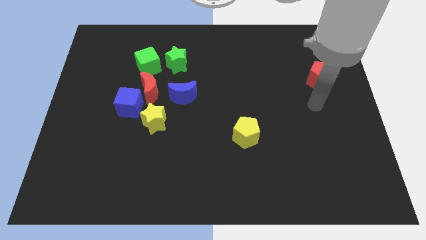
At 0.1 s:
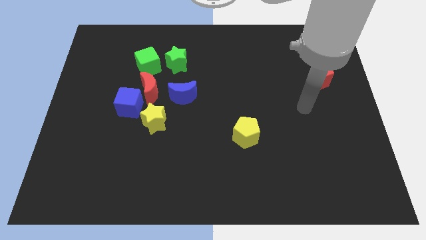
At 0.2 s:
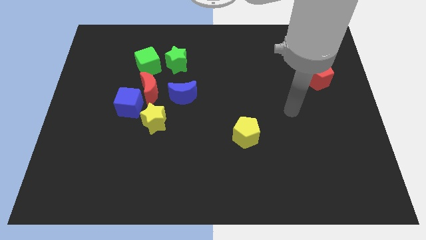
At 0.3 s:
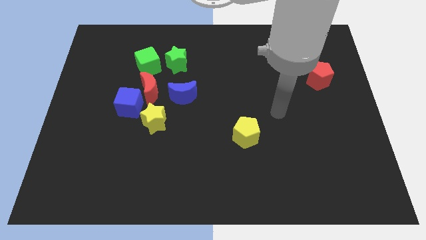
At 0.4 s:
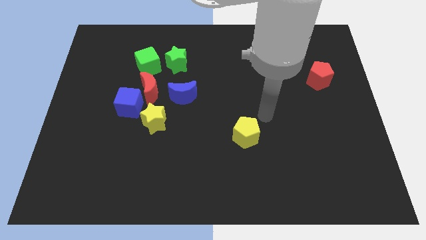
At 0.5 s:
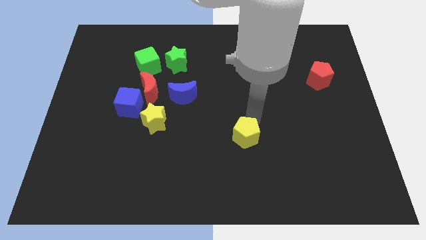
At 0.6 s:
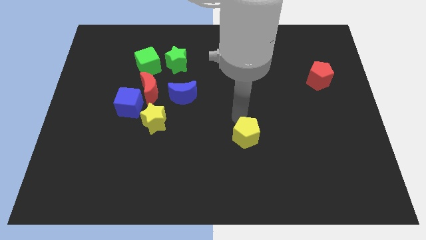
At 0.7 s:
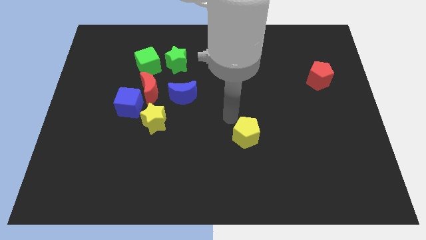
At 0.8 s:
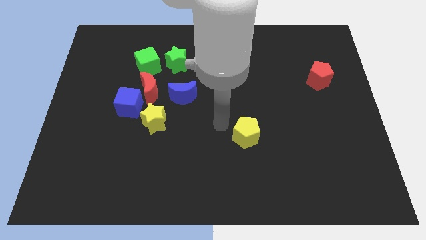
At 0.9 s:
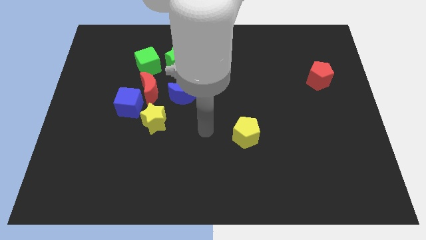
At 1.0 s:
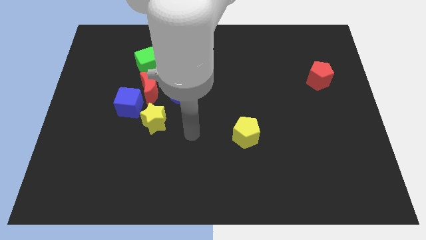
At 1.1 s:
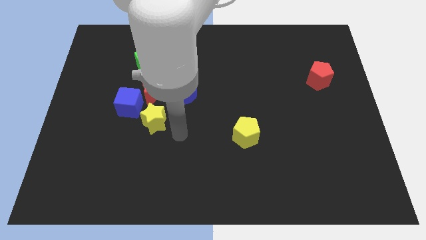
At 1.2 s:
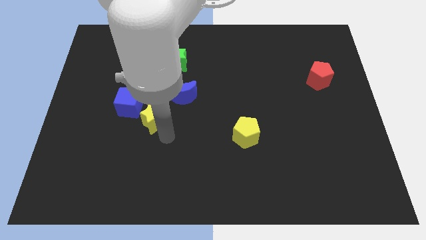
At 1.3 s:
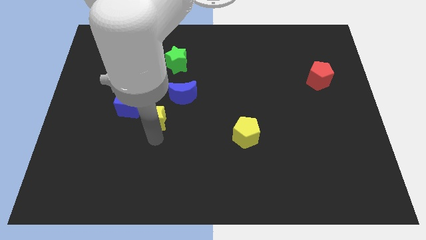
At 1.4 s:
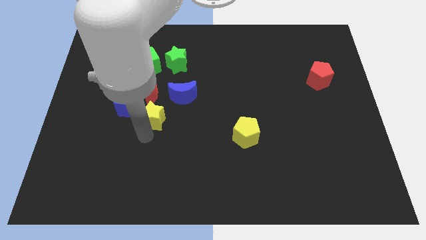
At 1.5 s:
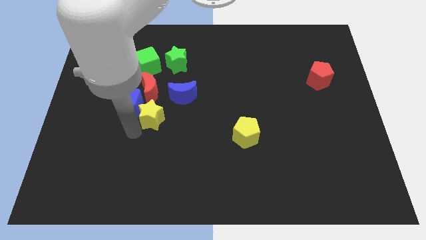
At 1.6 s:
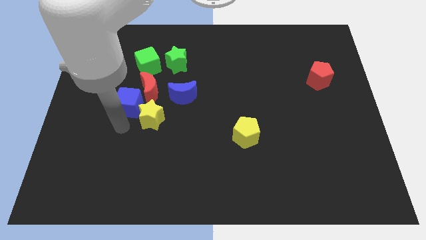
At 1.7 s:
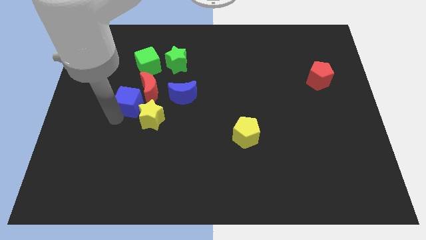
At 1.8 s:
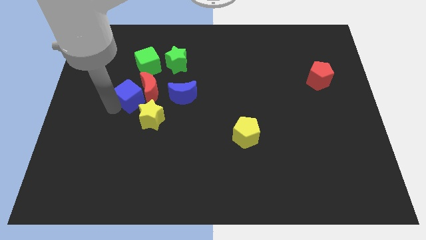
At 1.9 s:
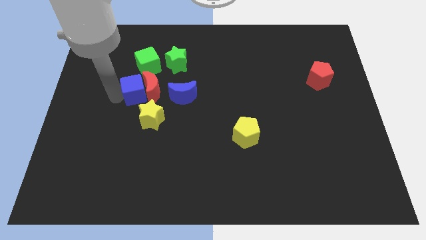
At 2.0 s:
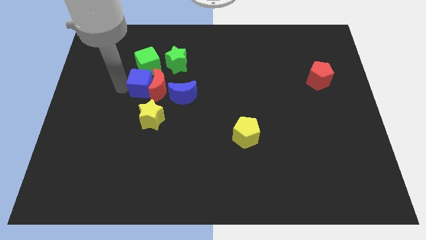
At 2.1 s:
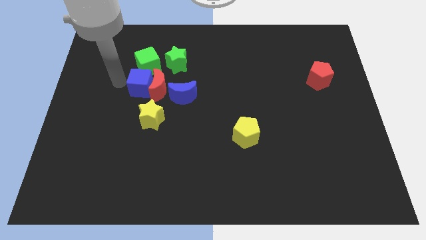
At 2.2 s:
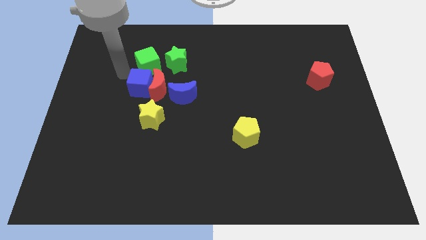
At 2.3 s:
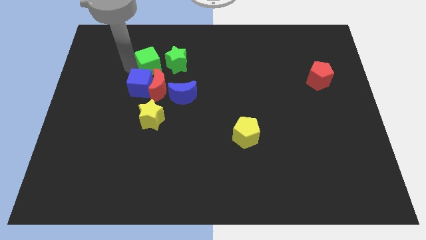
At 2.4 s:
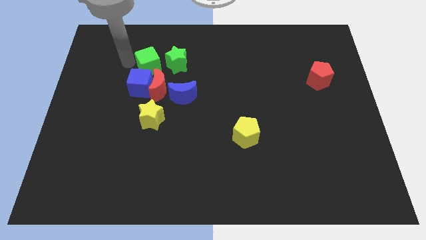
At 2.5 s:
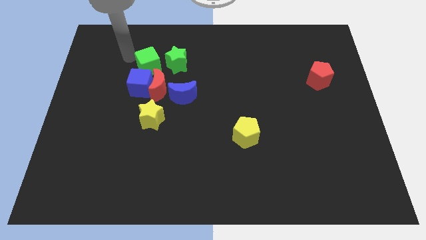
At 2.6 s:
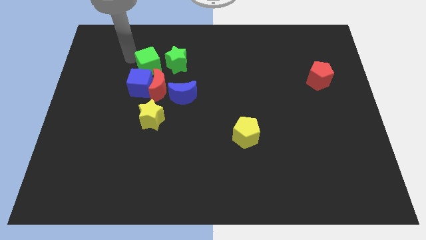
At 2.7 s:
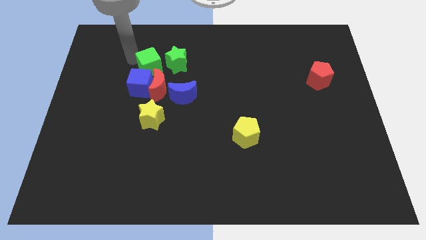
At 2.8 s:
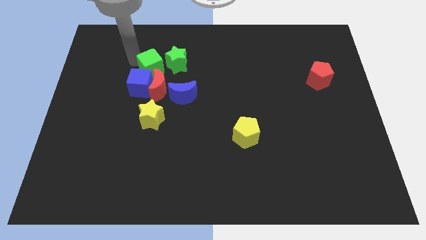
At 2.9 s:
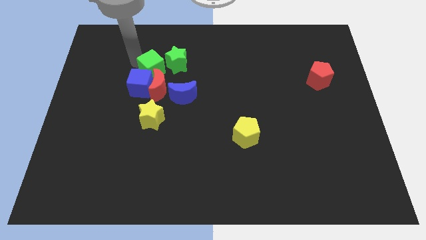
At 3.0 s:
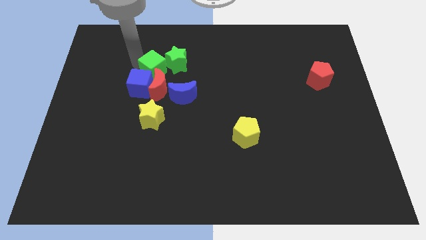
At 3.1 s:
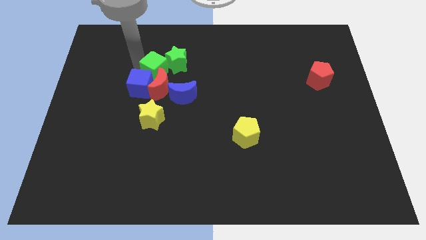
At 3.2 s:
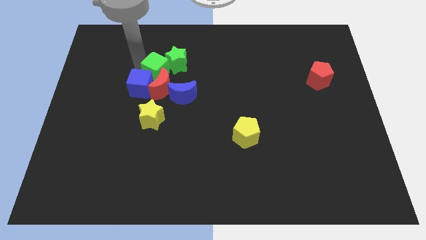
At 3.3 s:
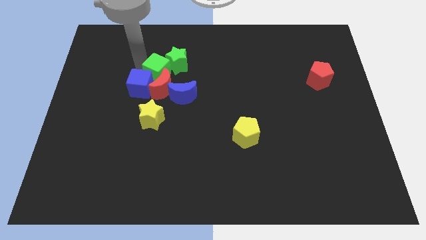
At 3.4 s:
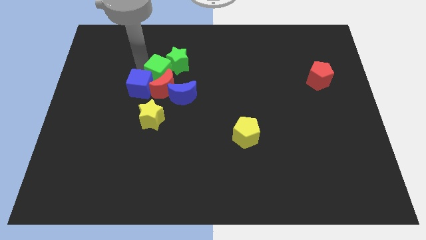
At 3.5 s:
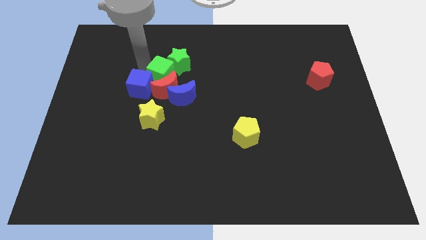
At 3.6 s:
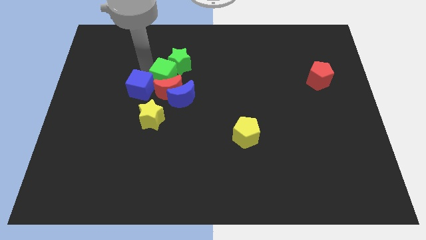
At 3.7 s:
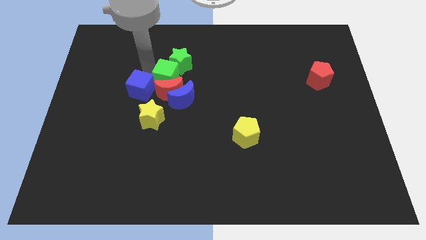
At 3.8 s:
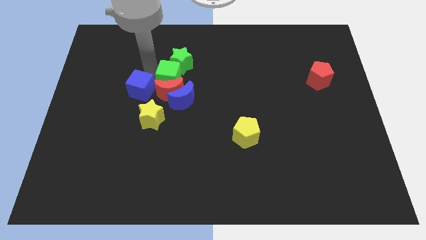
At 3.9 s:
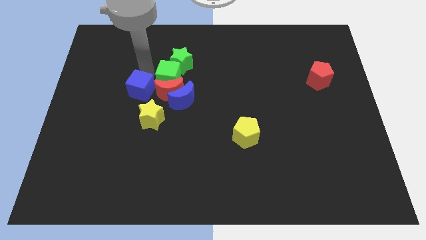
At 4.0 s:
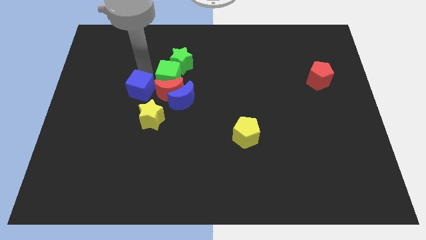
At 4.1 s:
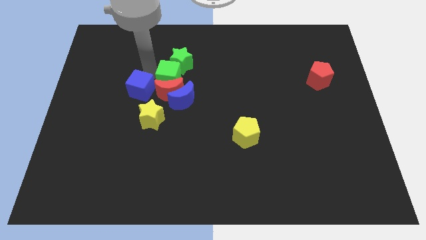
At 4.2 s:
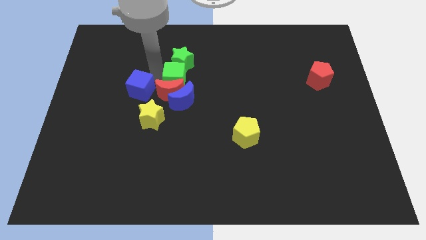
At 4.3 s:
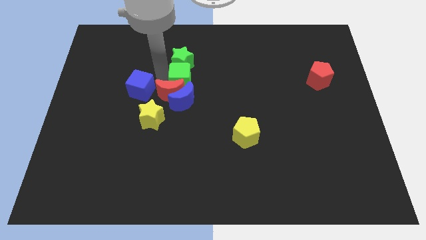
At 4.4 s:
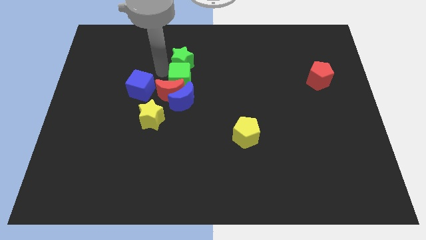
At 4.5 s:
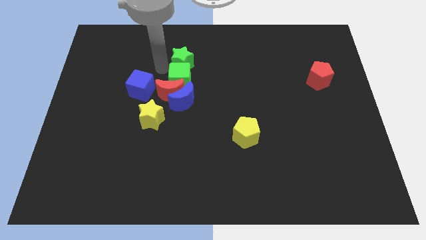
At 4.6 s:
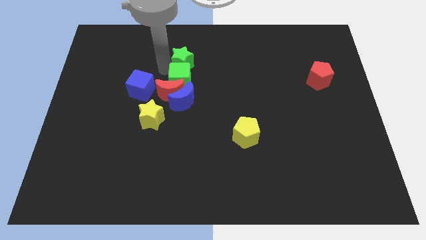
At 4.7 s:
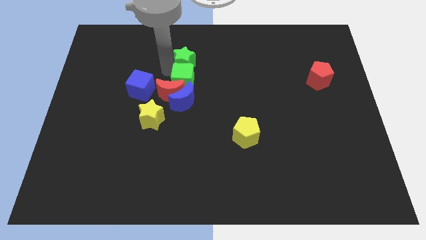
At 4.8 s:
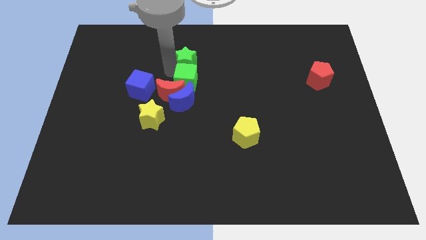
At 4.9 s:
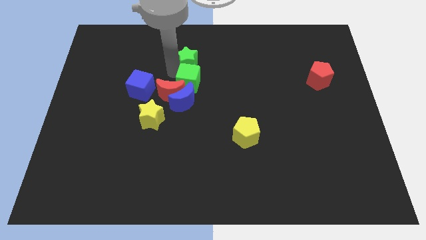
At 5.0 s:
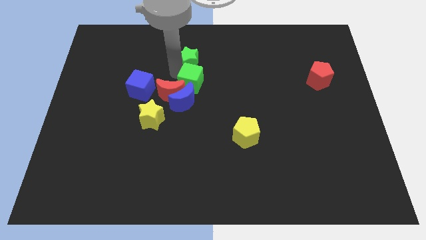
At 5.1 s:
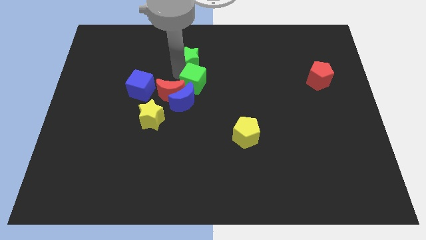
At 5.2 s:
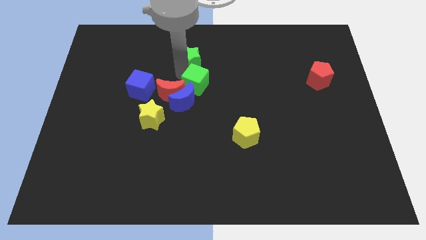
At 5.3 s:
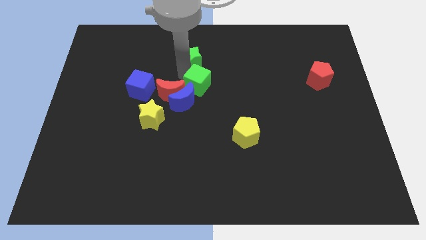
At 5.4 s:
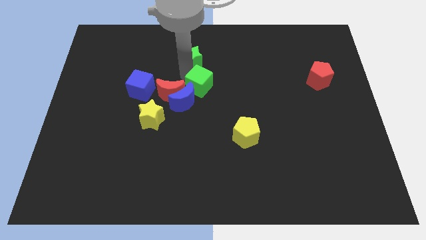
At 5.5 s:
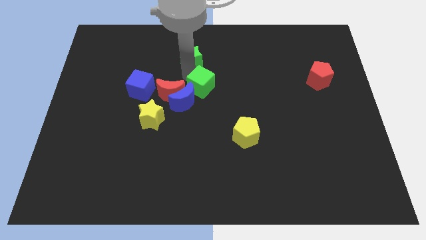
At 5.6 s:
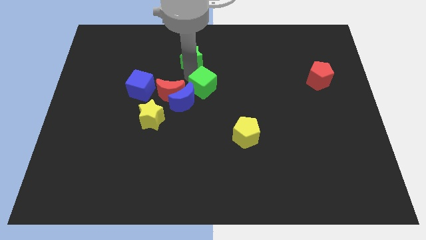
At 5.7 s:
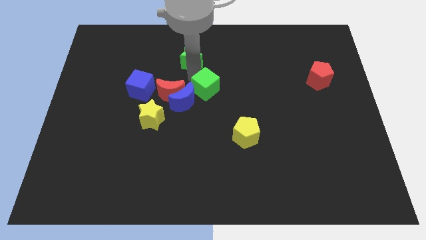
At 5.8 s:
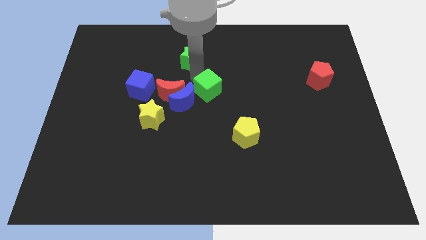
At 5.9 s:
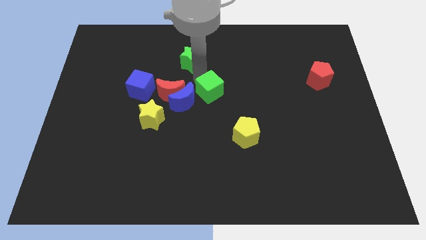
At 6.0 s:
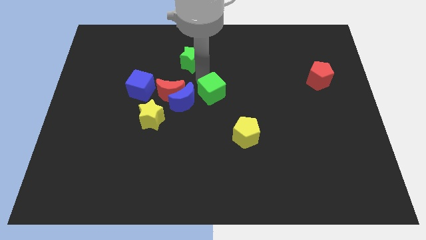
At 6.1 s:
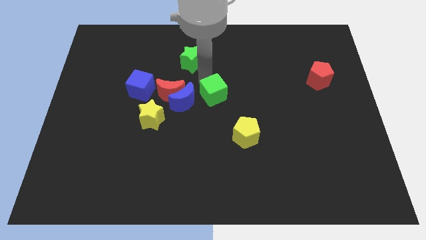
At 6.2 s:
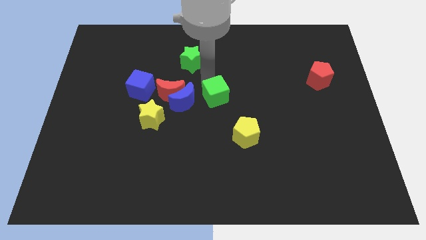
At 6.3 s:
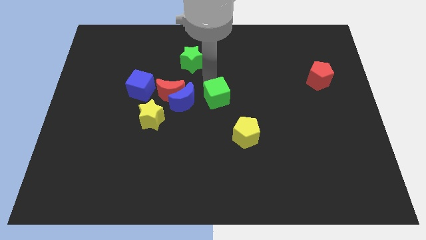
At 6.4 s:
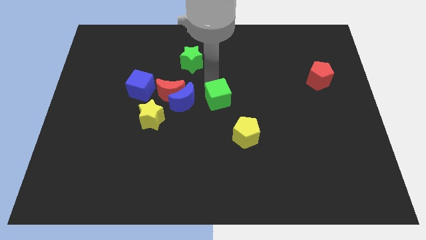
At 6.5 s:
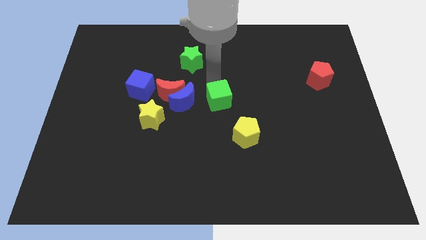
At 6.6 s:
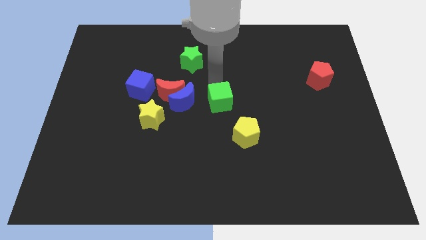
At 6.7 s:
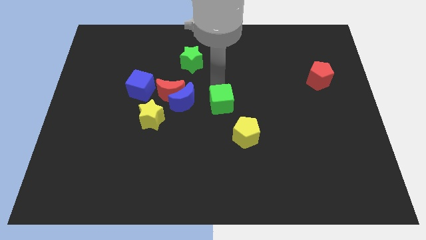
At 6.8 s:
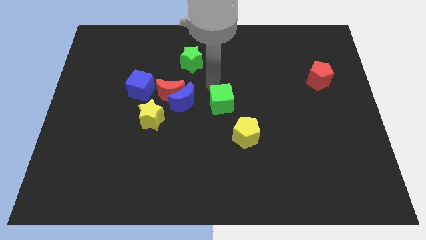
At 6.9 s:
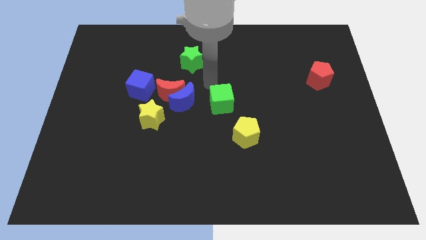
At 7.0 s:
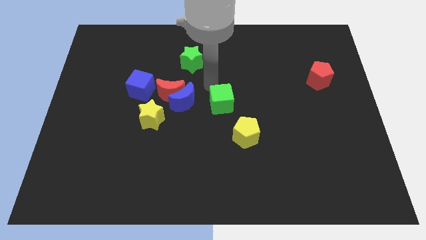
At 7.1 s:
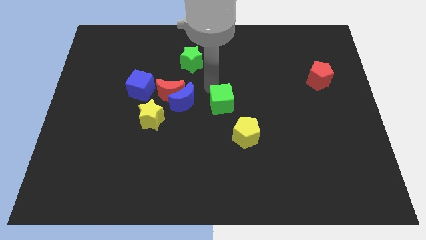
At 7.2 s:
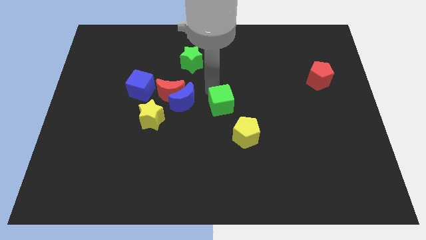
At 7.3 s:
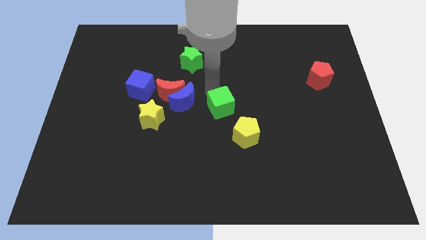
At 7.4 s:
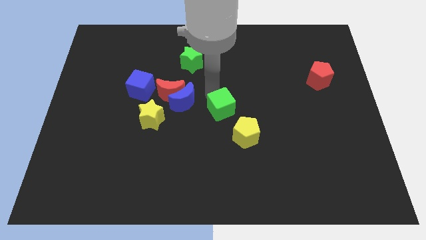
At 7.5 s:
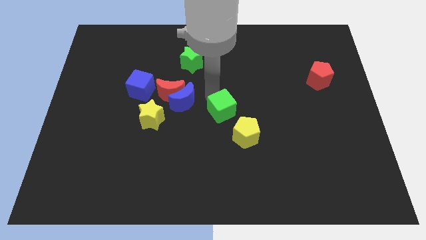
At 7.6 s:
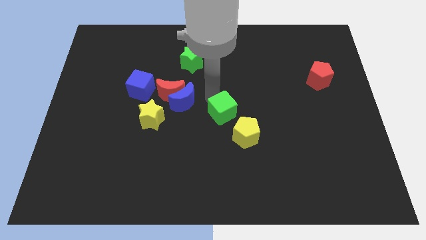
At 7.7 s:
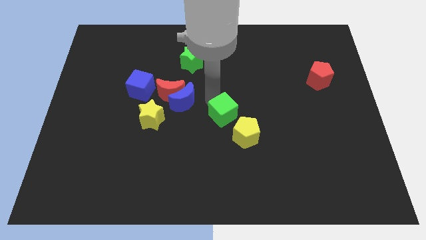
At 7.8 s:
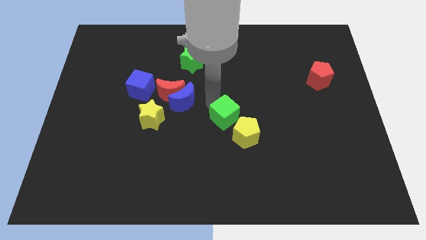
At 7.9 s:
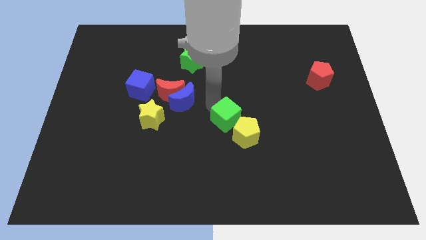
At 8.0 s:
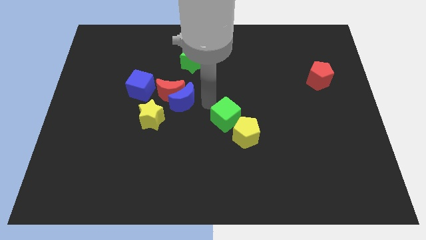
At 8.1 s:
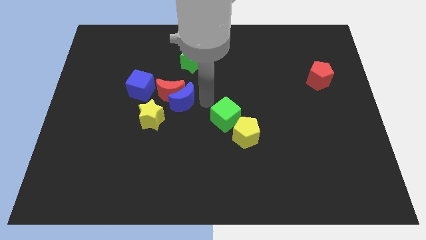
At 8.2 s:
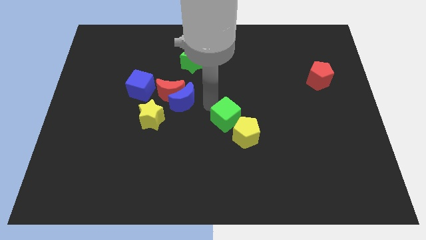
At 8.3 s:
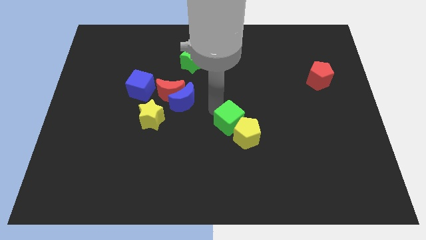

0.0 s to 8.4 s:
slide the green cube to the yellow pentagon
